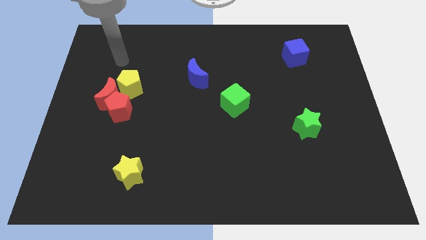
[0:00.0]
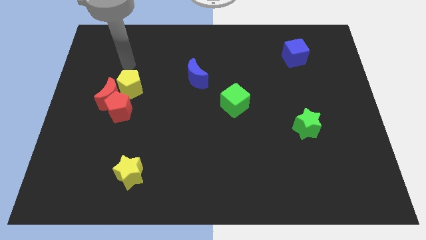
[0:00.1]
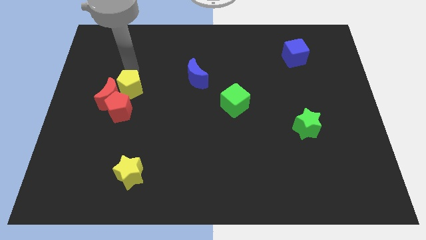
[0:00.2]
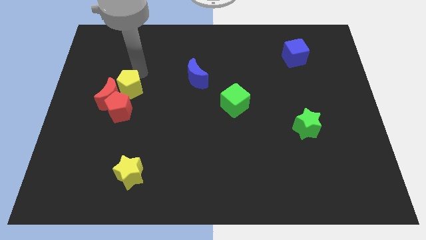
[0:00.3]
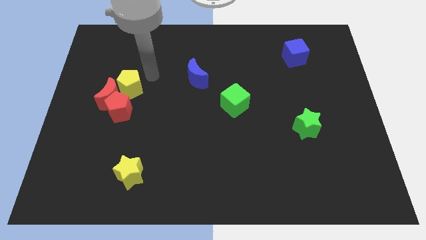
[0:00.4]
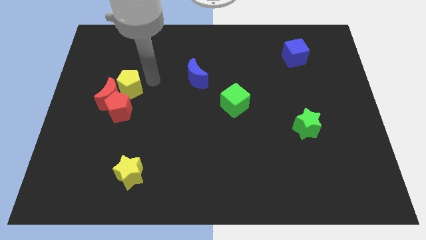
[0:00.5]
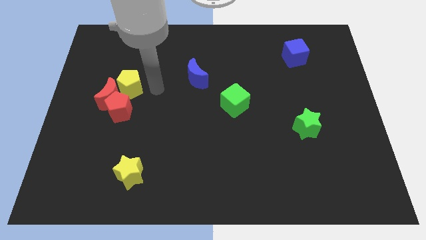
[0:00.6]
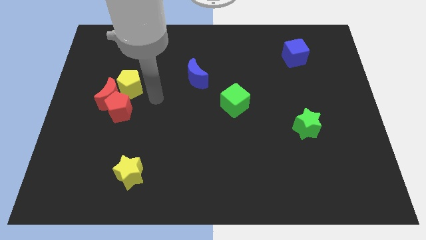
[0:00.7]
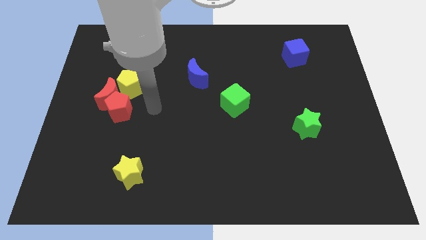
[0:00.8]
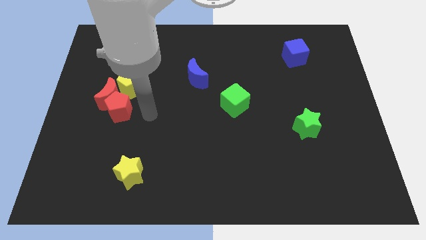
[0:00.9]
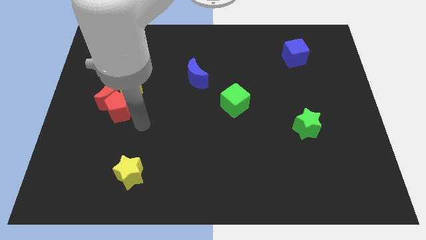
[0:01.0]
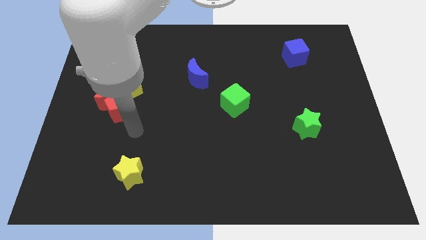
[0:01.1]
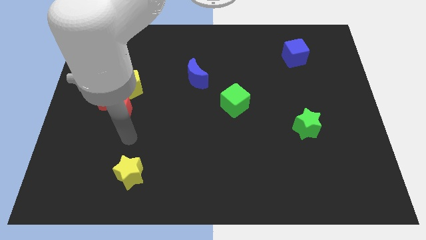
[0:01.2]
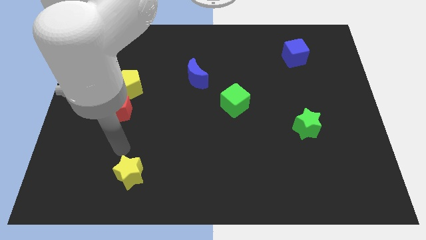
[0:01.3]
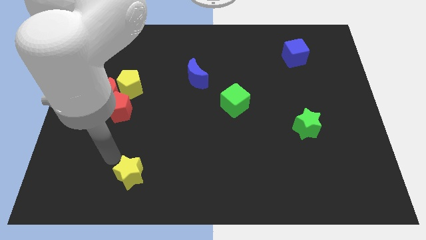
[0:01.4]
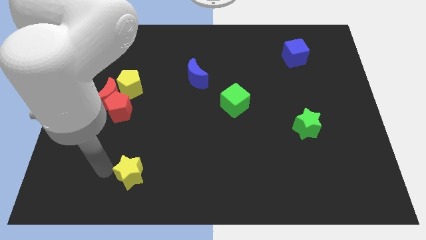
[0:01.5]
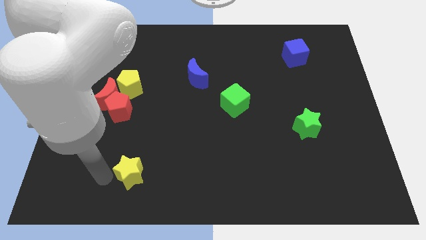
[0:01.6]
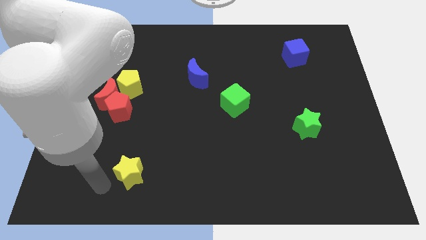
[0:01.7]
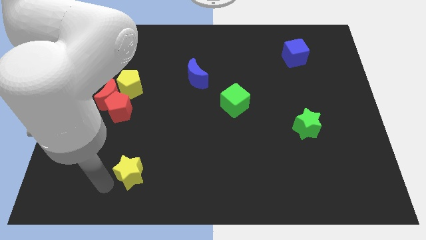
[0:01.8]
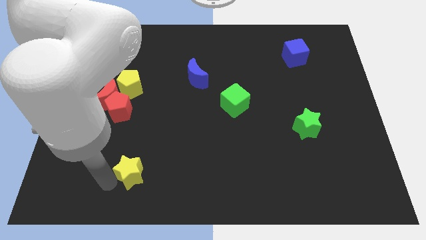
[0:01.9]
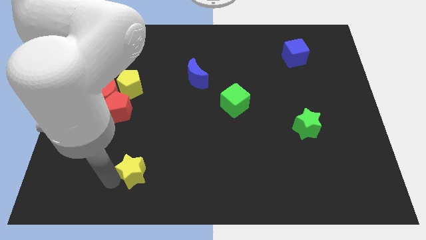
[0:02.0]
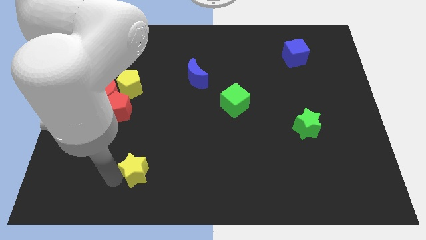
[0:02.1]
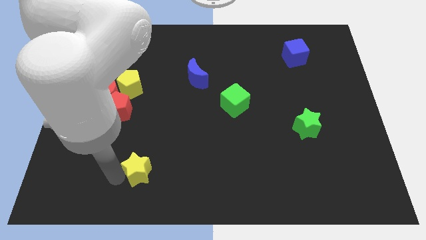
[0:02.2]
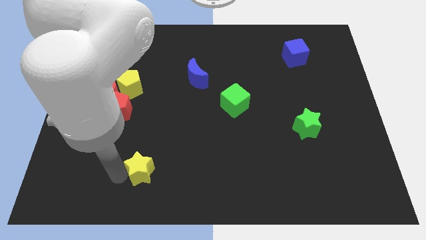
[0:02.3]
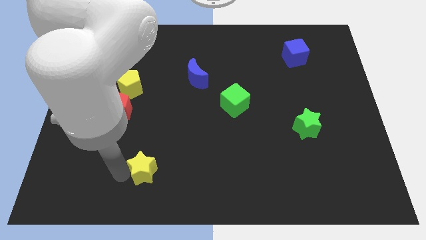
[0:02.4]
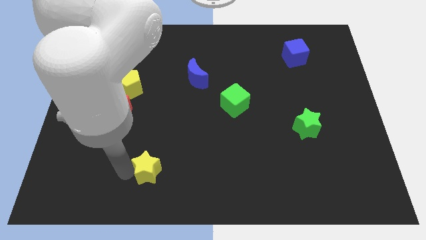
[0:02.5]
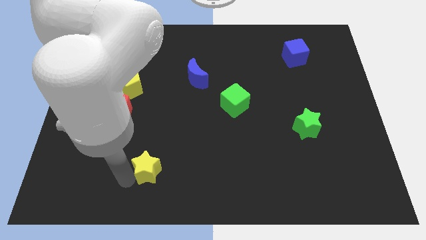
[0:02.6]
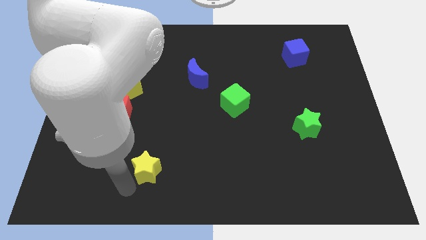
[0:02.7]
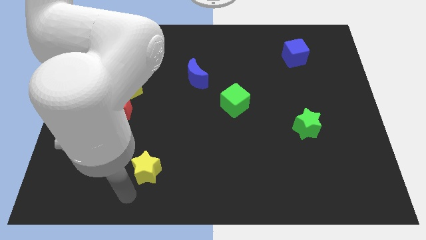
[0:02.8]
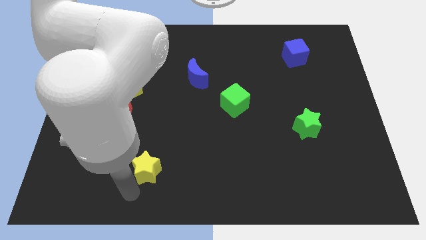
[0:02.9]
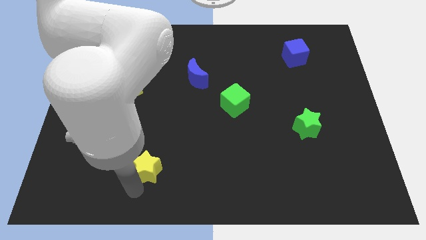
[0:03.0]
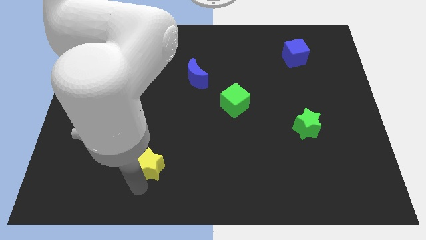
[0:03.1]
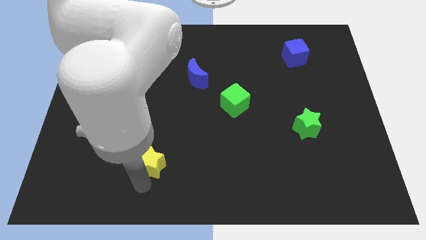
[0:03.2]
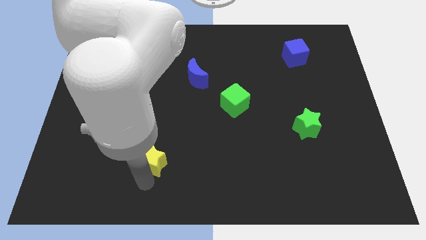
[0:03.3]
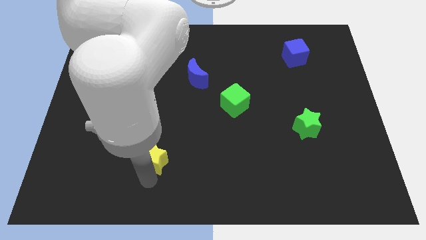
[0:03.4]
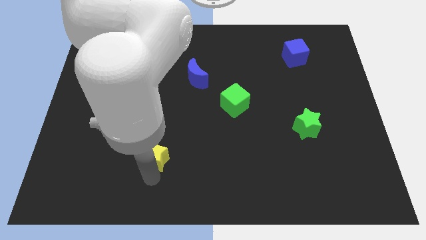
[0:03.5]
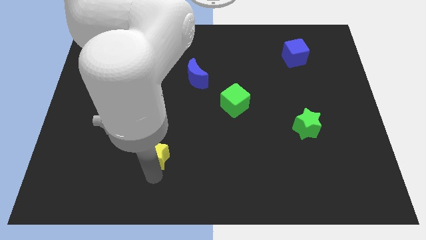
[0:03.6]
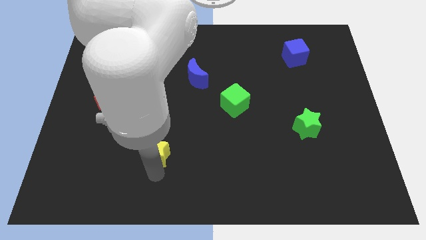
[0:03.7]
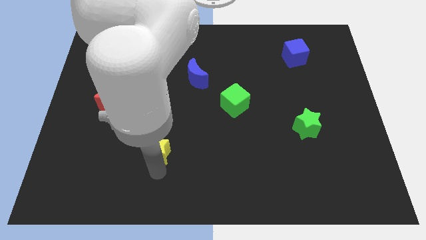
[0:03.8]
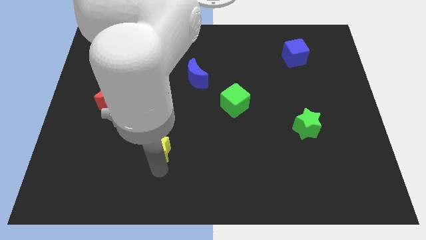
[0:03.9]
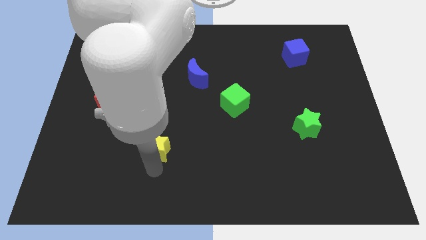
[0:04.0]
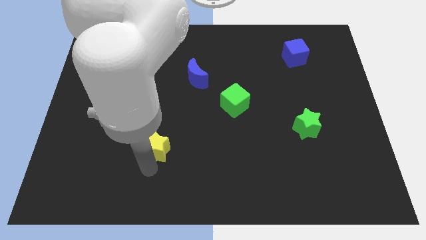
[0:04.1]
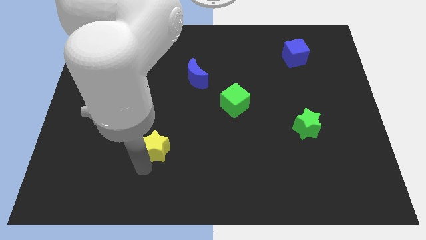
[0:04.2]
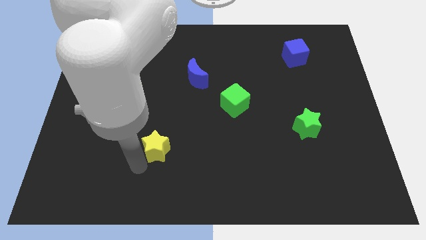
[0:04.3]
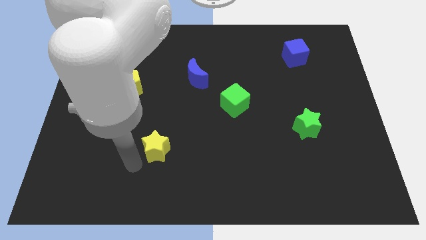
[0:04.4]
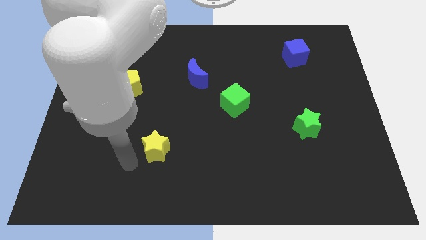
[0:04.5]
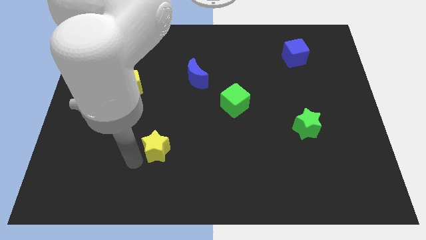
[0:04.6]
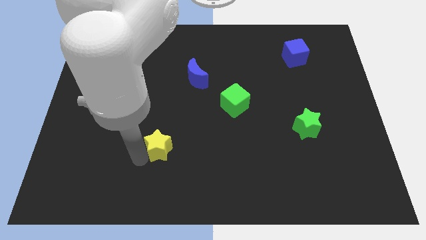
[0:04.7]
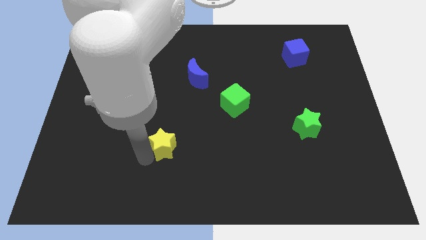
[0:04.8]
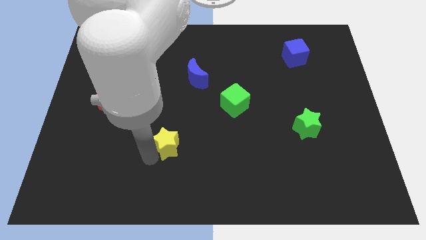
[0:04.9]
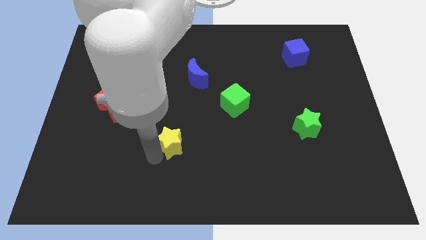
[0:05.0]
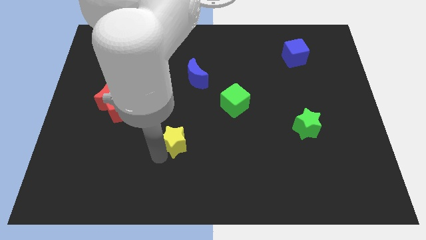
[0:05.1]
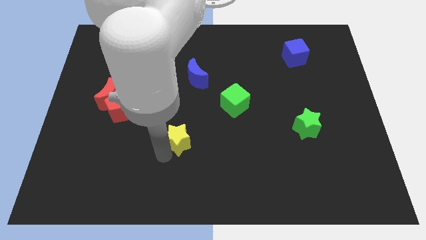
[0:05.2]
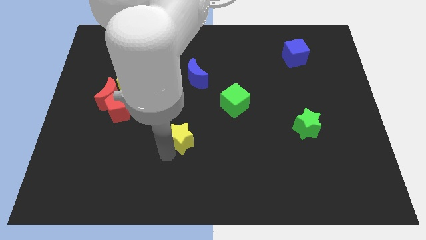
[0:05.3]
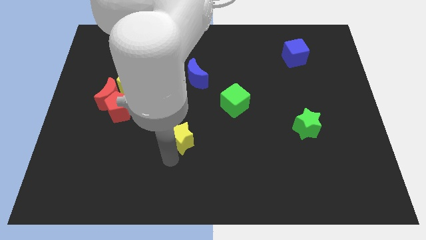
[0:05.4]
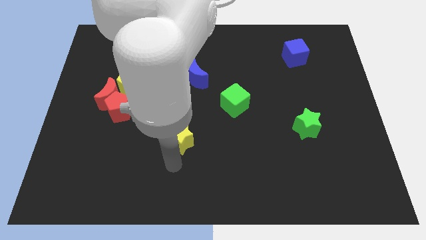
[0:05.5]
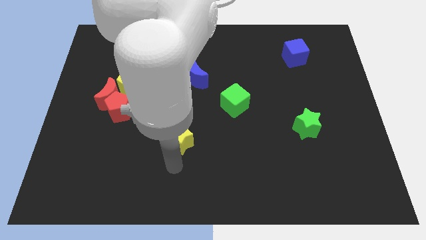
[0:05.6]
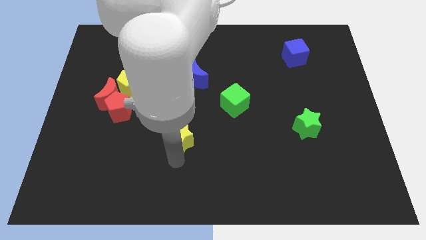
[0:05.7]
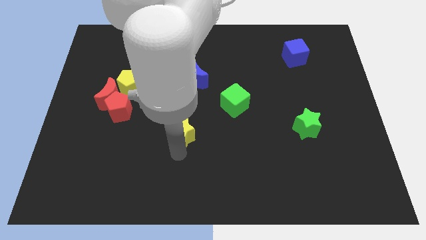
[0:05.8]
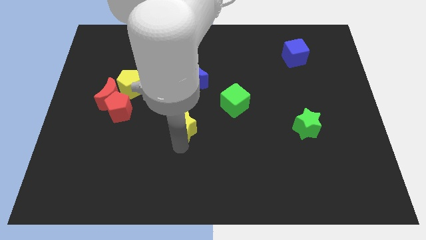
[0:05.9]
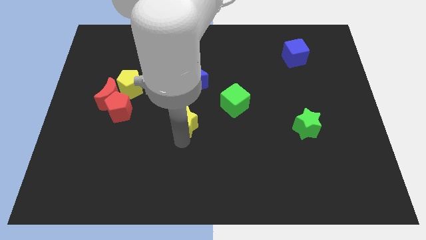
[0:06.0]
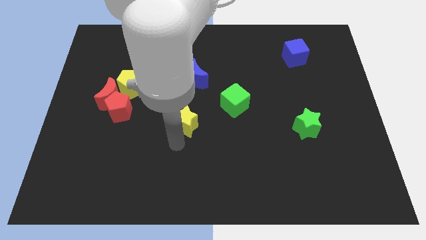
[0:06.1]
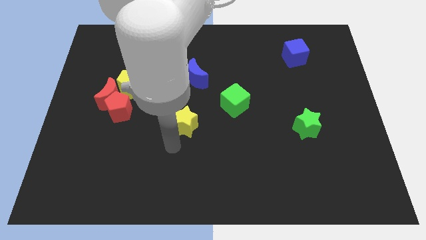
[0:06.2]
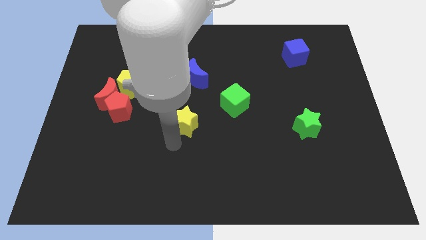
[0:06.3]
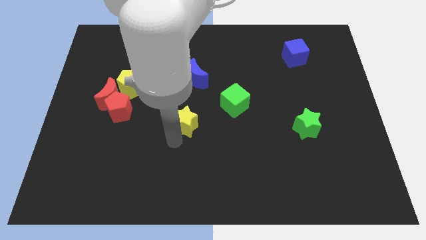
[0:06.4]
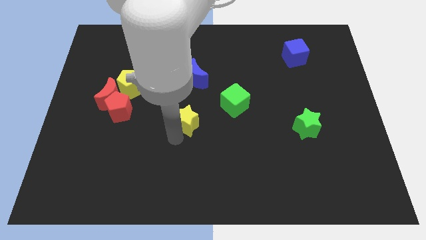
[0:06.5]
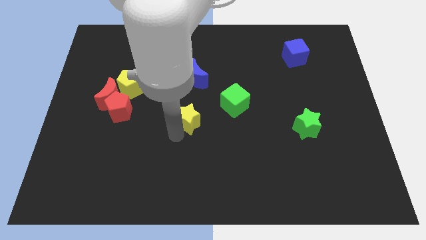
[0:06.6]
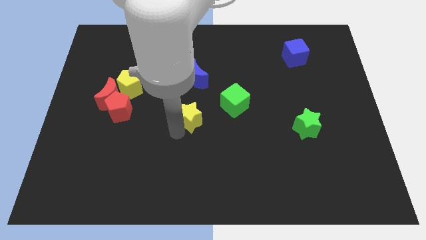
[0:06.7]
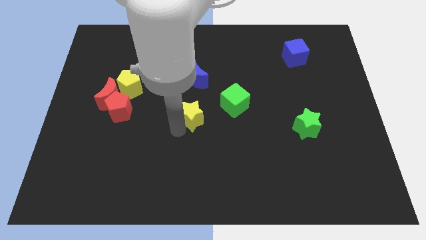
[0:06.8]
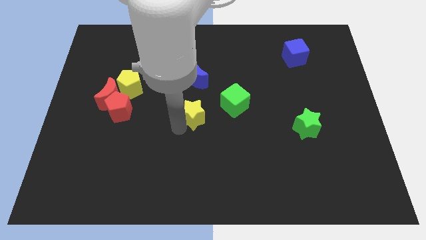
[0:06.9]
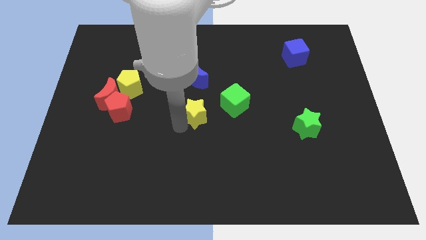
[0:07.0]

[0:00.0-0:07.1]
push the yellow star upwards and then right

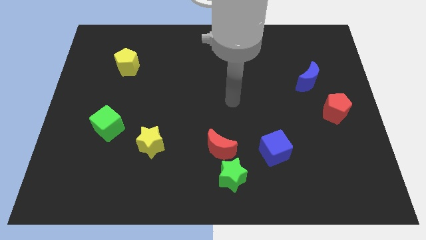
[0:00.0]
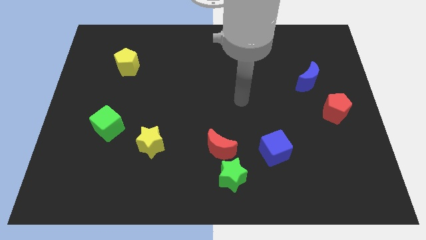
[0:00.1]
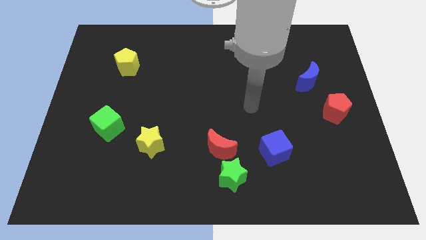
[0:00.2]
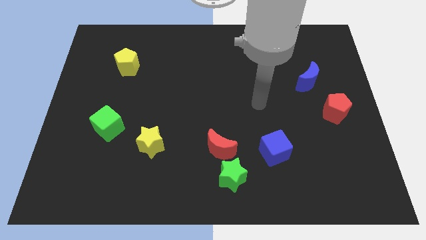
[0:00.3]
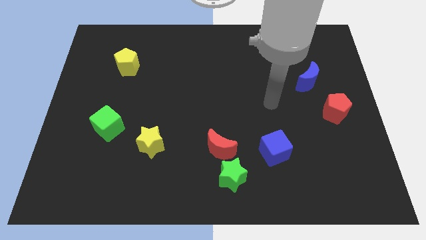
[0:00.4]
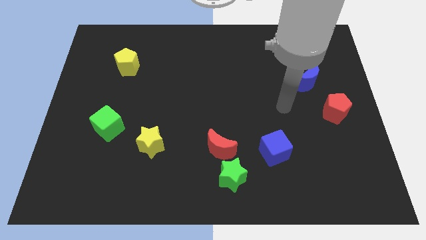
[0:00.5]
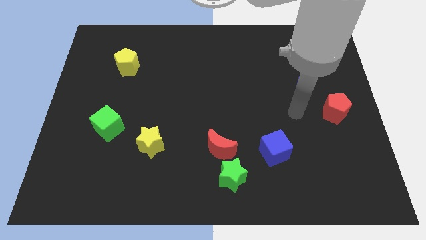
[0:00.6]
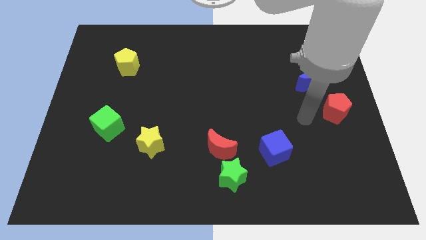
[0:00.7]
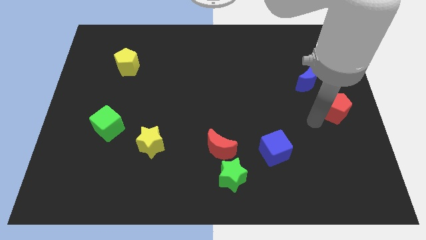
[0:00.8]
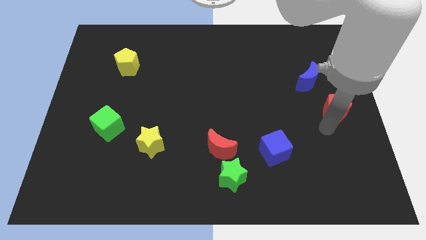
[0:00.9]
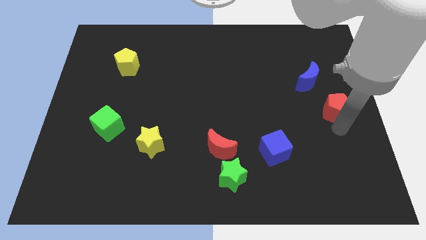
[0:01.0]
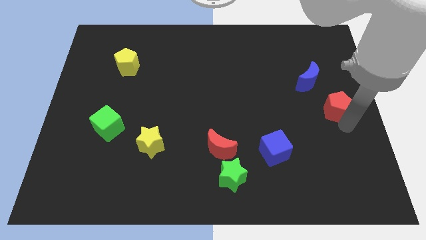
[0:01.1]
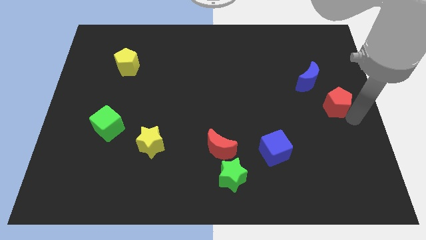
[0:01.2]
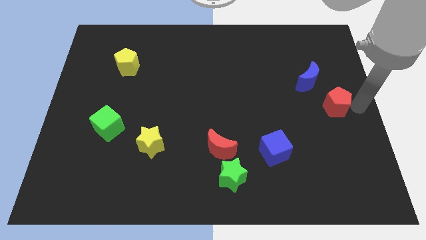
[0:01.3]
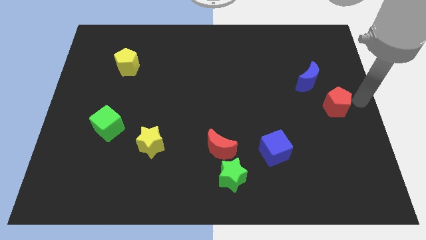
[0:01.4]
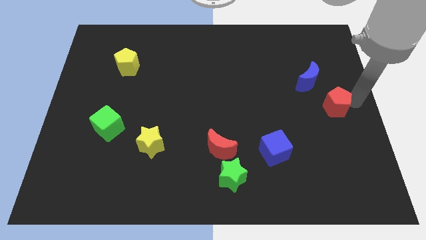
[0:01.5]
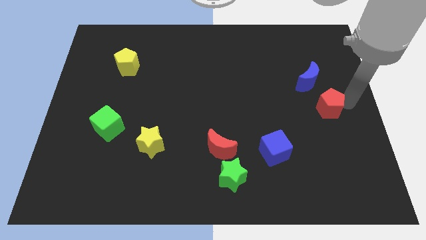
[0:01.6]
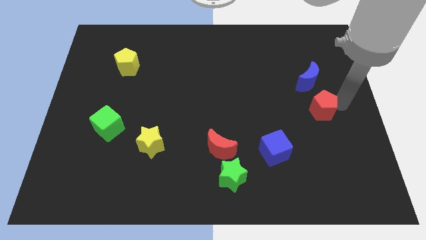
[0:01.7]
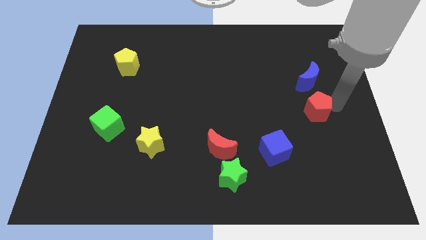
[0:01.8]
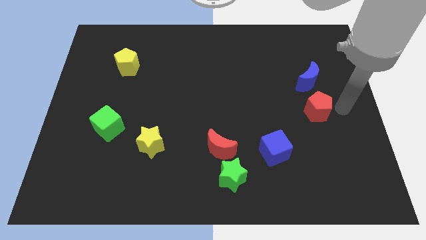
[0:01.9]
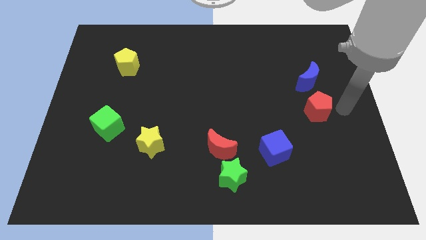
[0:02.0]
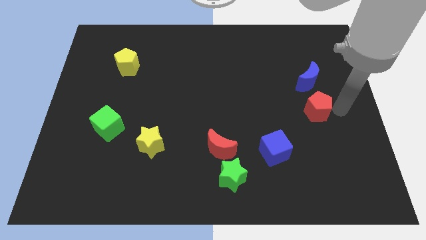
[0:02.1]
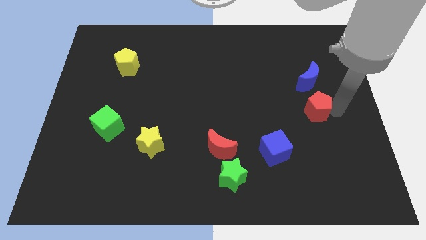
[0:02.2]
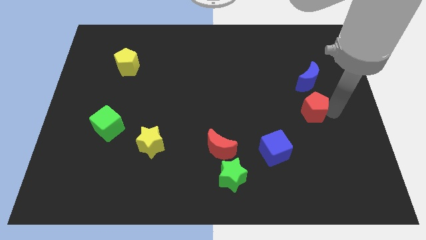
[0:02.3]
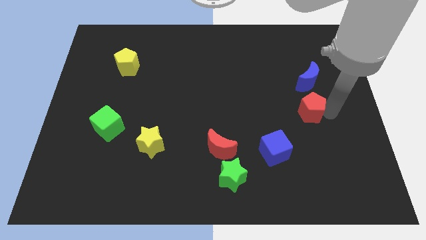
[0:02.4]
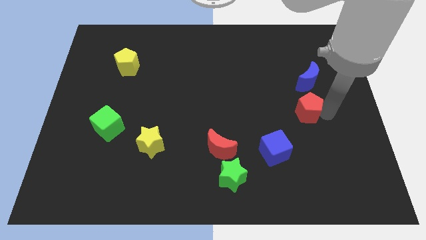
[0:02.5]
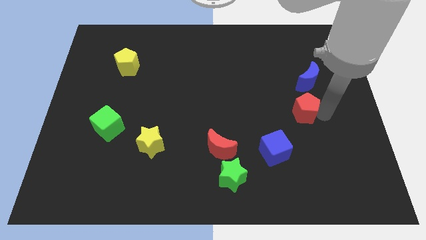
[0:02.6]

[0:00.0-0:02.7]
slightly push the red pentagon left
